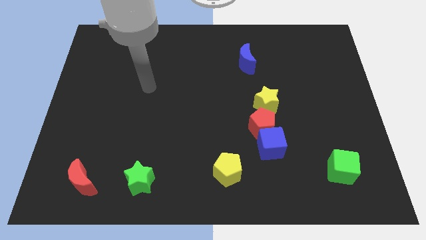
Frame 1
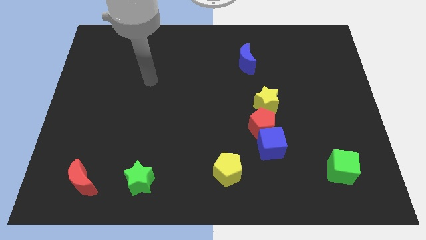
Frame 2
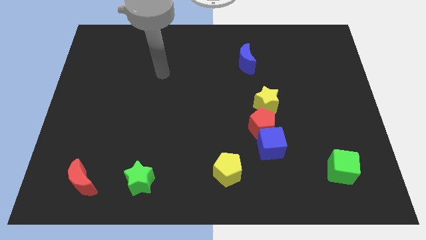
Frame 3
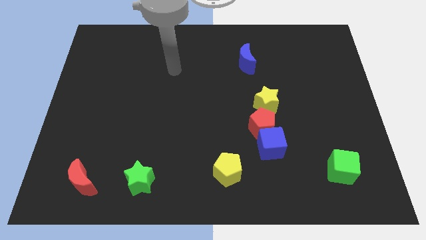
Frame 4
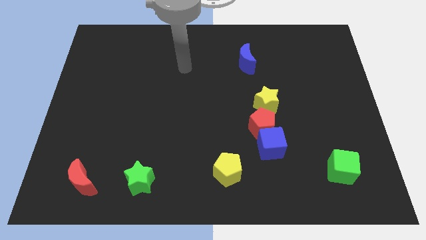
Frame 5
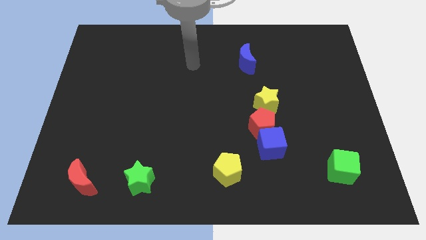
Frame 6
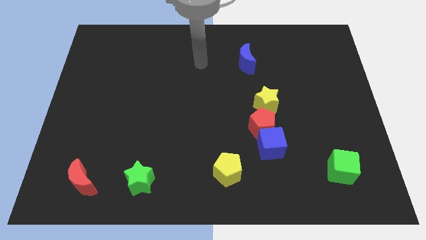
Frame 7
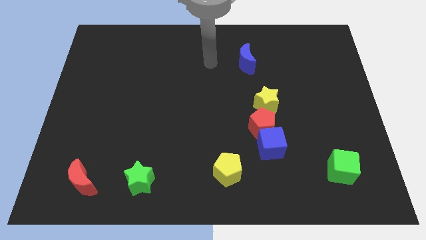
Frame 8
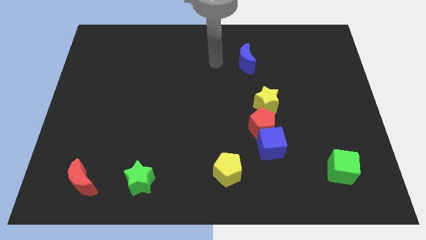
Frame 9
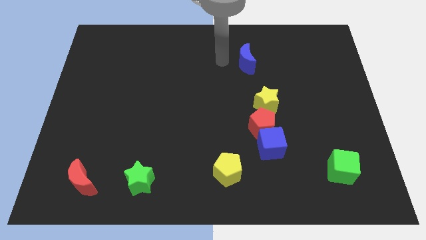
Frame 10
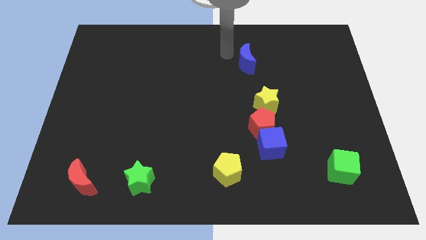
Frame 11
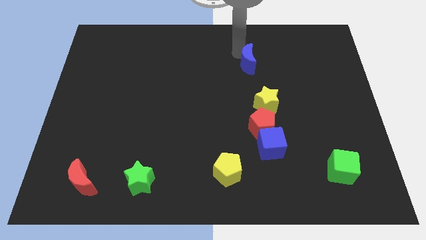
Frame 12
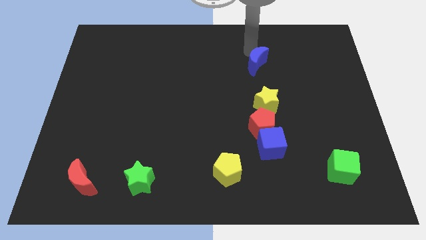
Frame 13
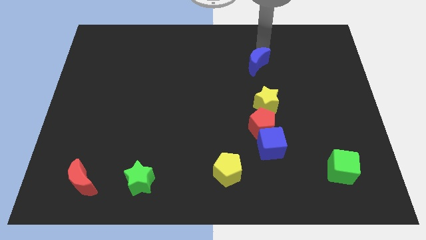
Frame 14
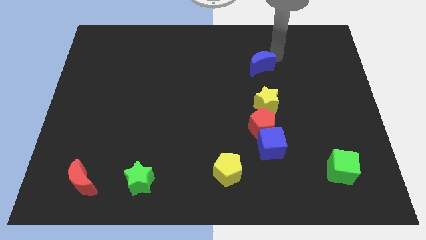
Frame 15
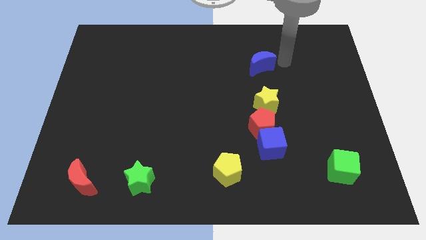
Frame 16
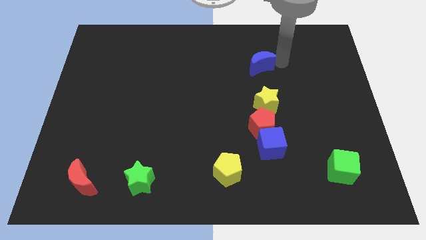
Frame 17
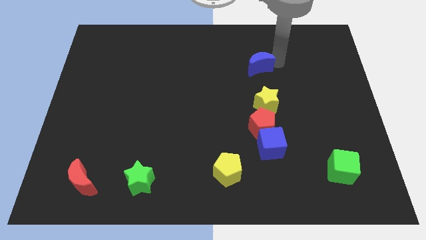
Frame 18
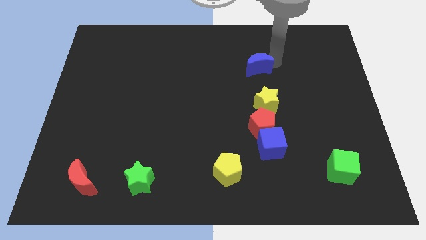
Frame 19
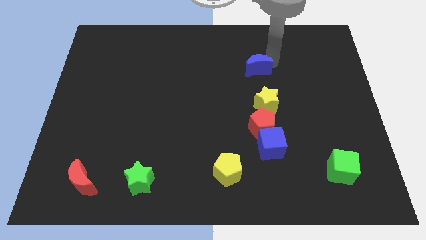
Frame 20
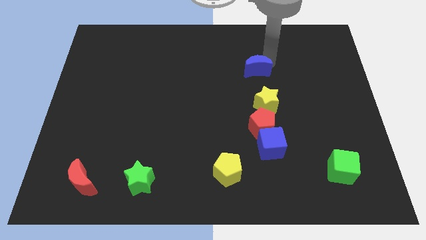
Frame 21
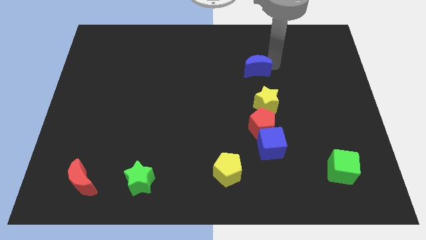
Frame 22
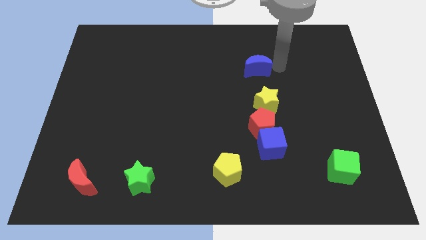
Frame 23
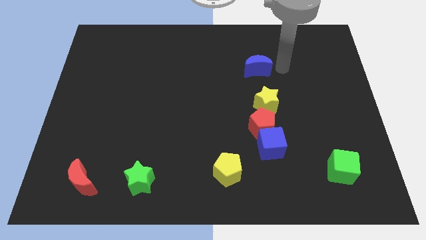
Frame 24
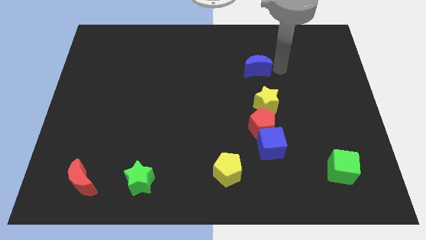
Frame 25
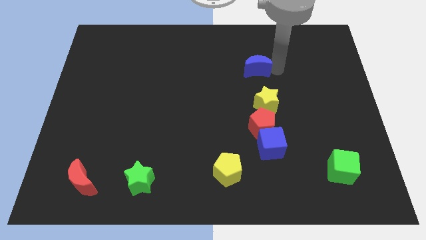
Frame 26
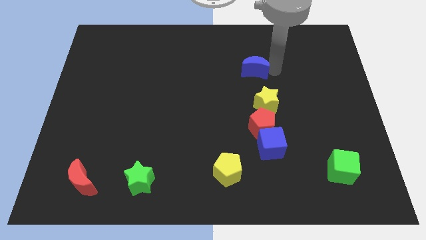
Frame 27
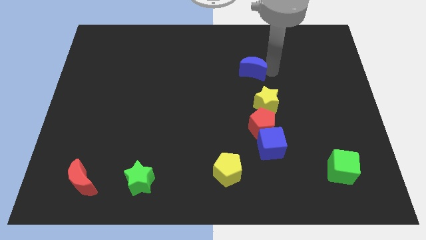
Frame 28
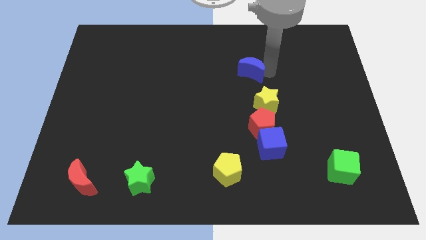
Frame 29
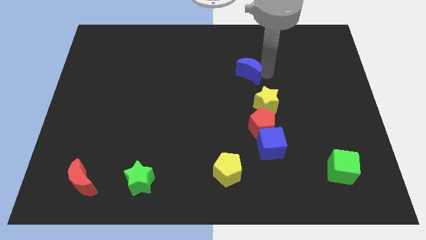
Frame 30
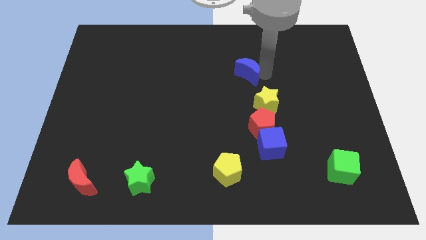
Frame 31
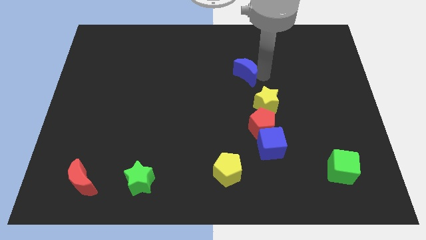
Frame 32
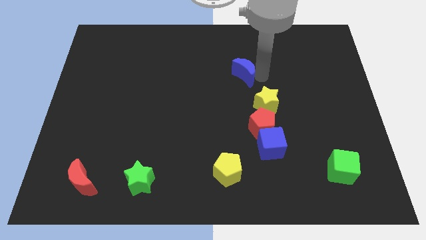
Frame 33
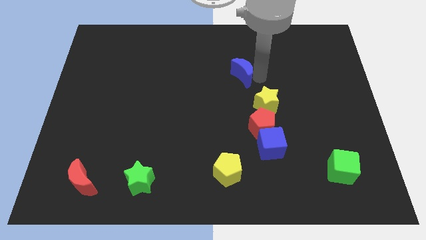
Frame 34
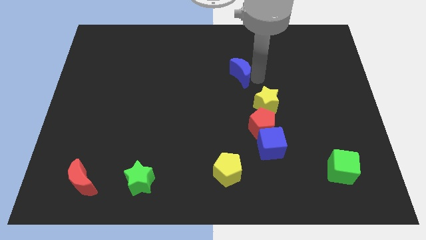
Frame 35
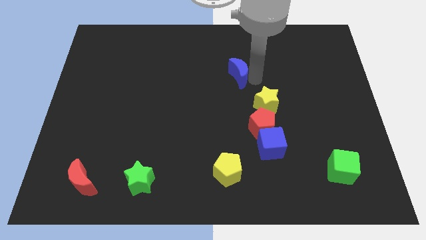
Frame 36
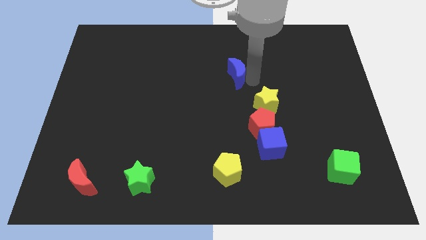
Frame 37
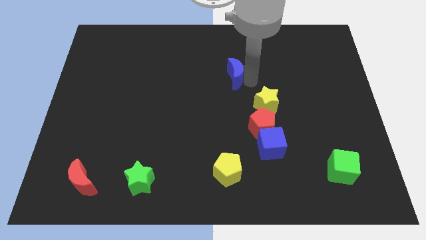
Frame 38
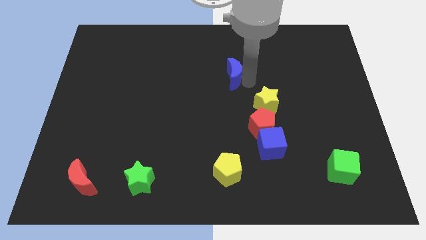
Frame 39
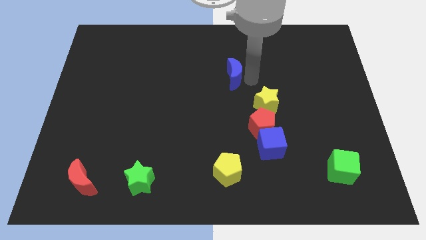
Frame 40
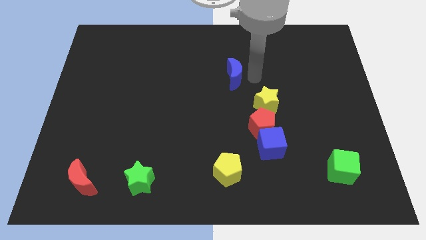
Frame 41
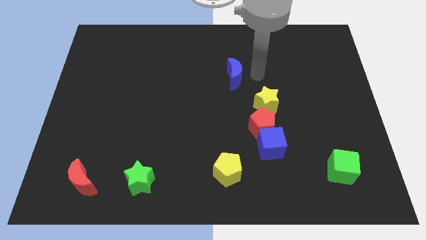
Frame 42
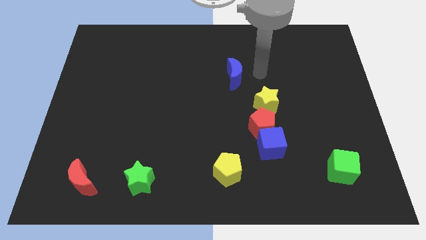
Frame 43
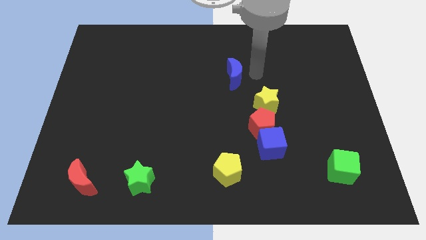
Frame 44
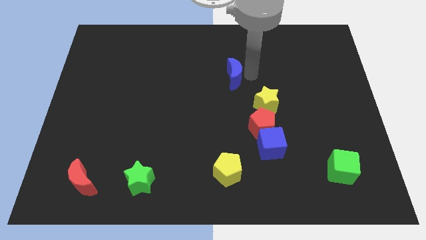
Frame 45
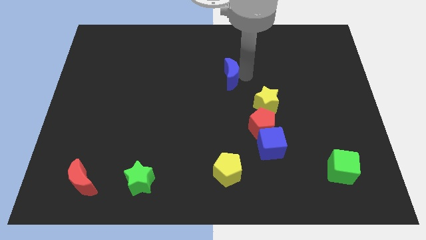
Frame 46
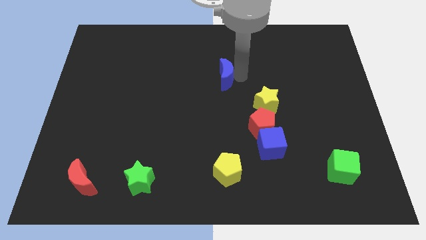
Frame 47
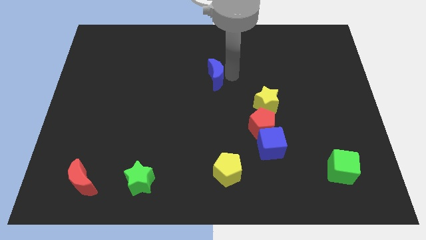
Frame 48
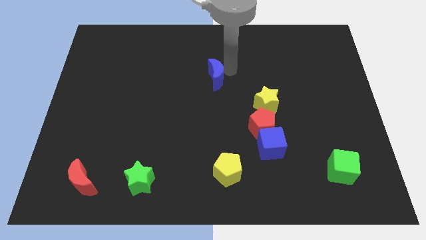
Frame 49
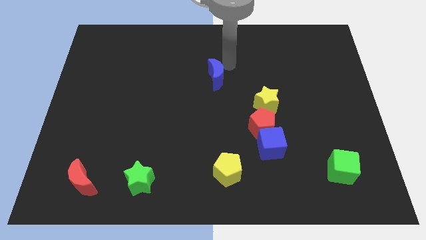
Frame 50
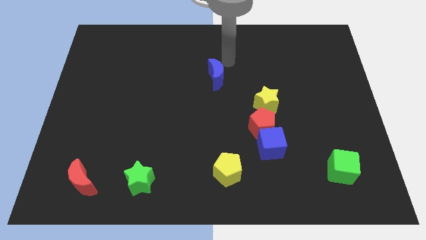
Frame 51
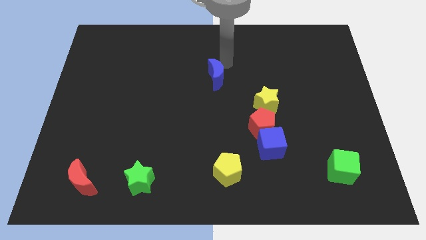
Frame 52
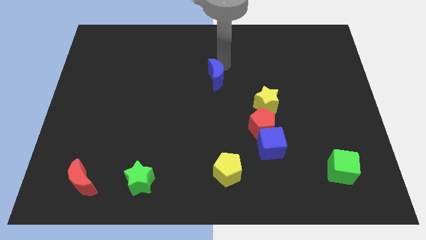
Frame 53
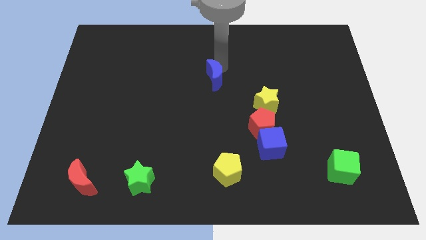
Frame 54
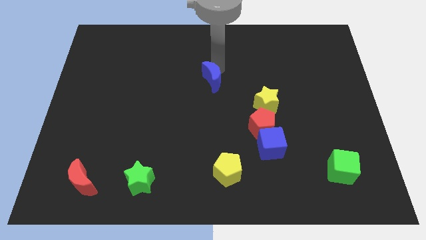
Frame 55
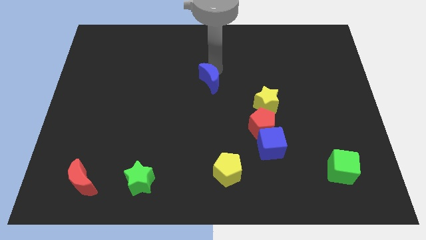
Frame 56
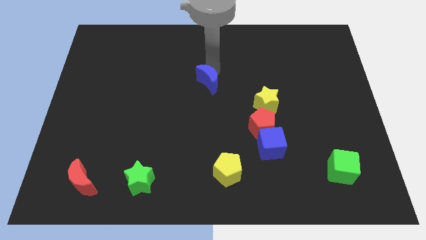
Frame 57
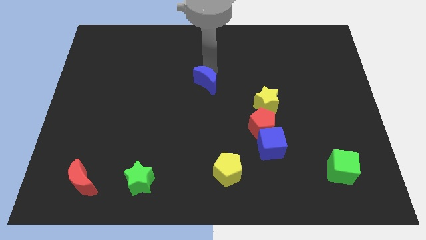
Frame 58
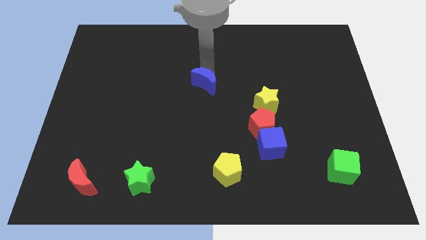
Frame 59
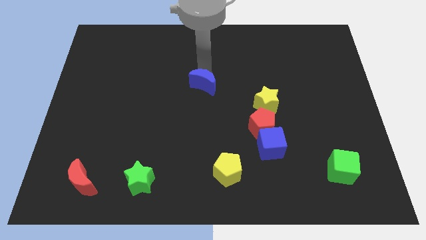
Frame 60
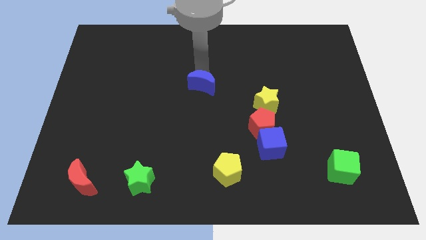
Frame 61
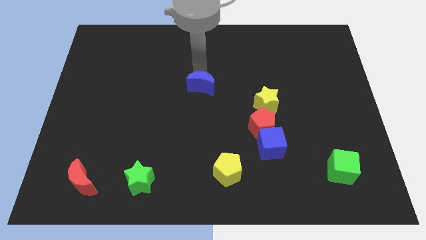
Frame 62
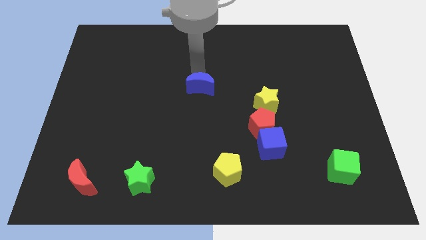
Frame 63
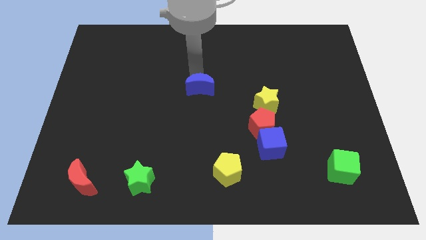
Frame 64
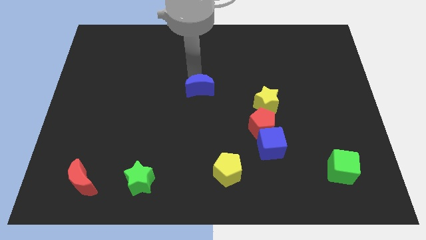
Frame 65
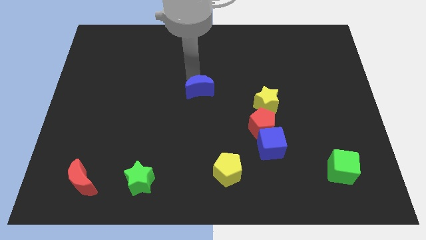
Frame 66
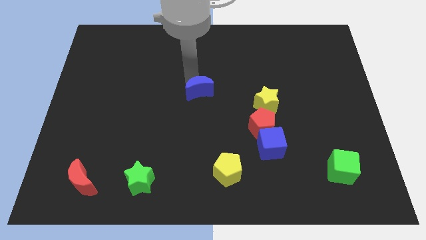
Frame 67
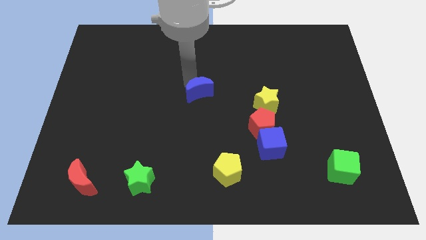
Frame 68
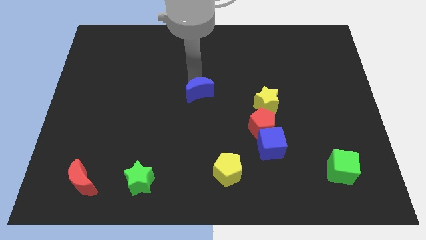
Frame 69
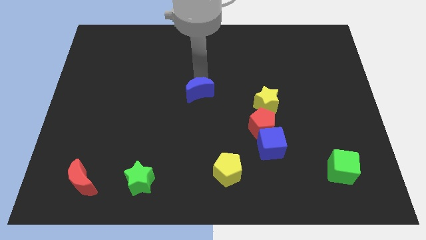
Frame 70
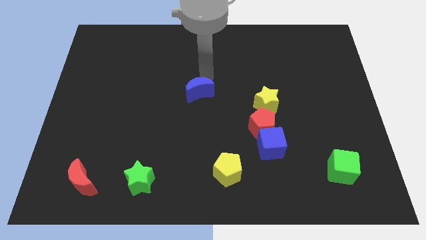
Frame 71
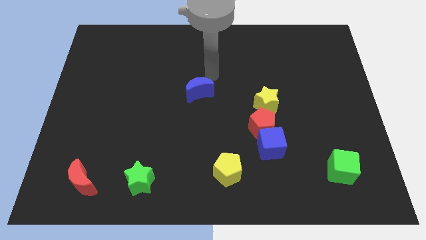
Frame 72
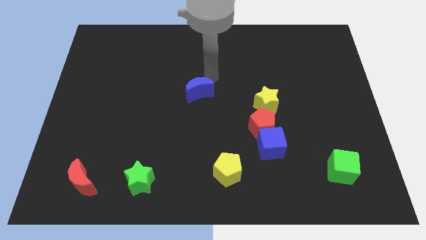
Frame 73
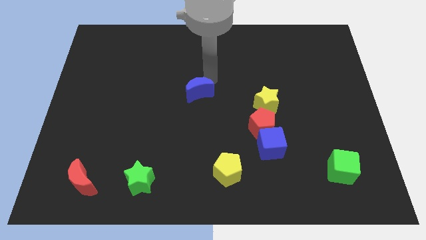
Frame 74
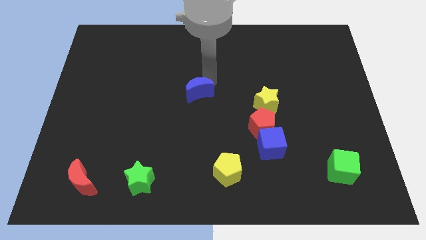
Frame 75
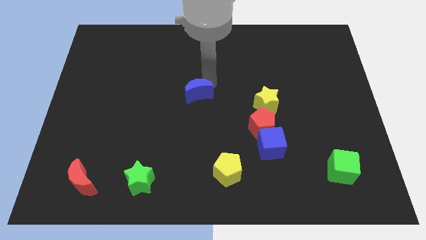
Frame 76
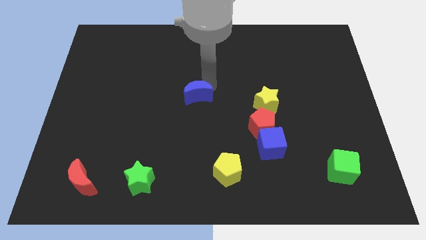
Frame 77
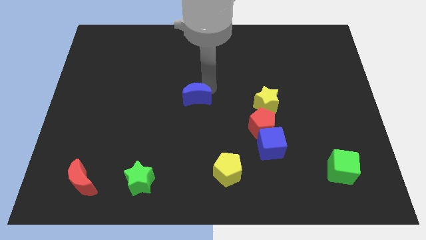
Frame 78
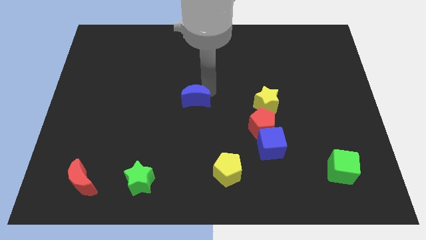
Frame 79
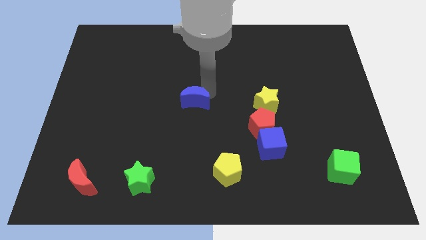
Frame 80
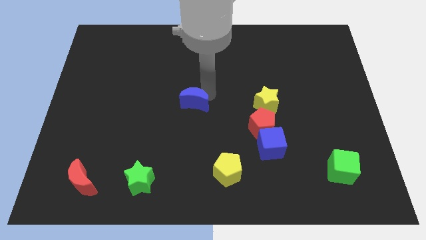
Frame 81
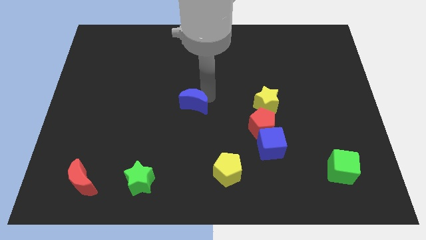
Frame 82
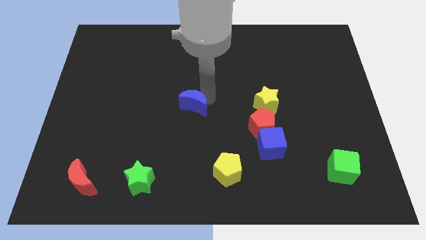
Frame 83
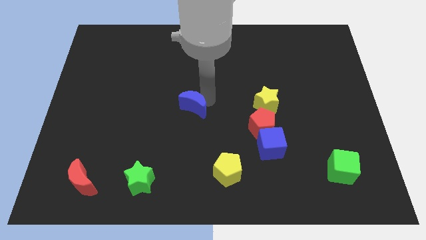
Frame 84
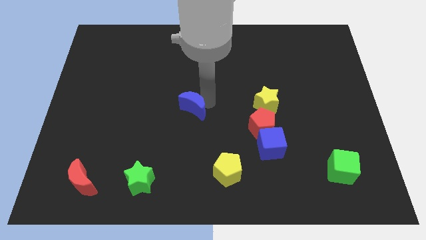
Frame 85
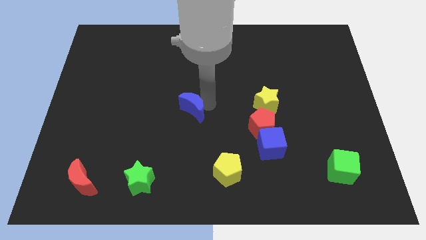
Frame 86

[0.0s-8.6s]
slide the blue moon down and then left
